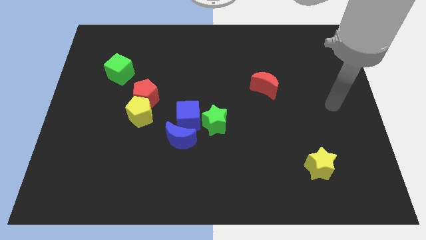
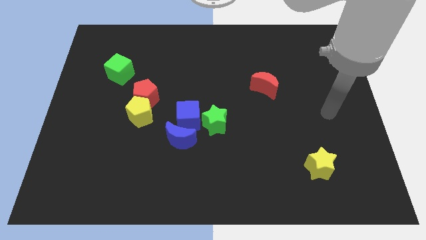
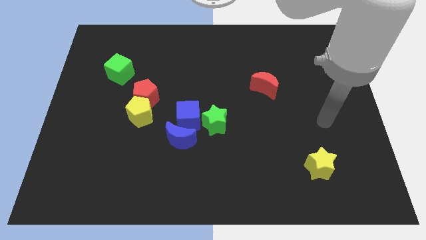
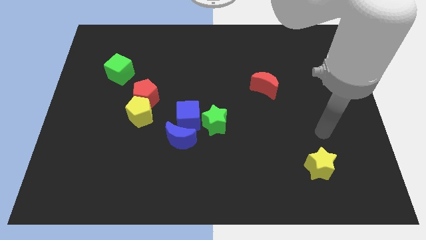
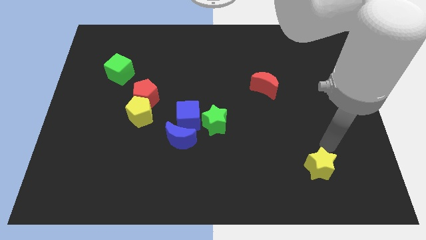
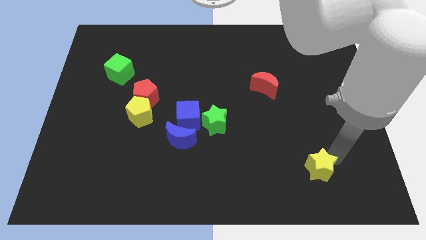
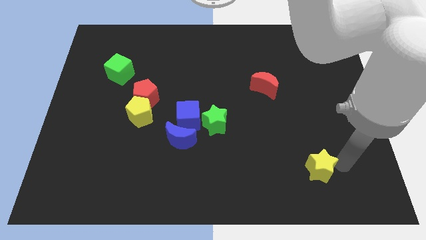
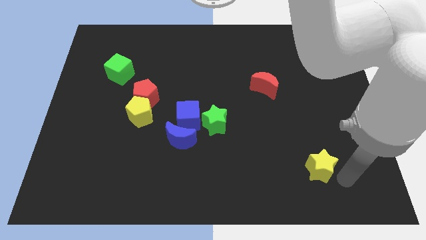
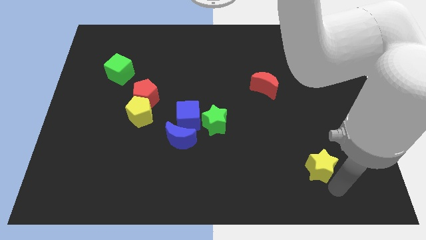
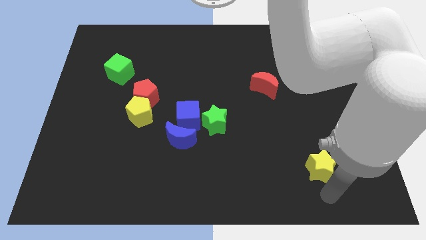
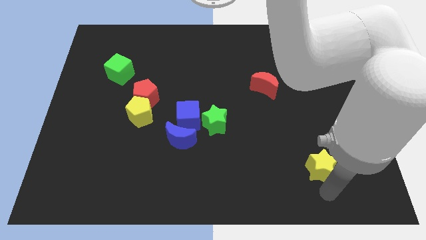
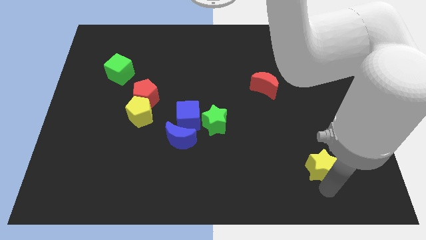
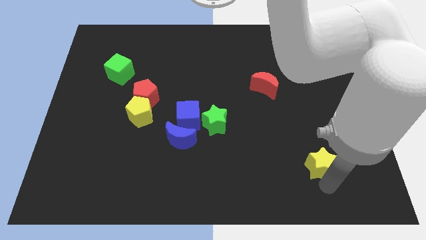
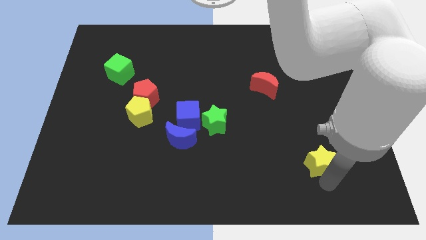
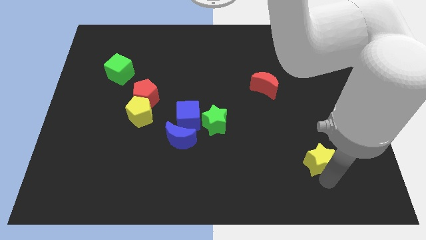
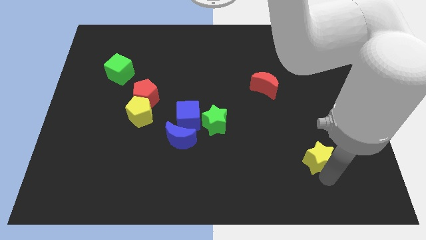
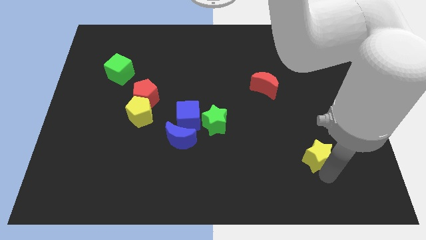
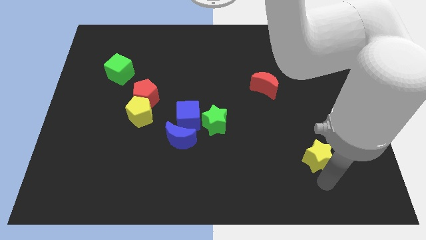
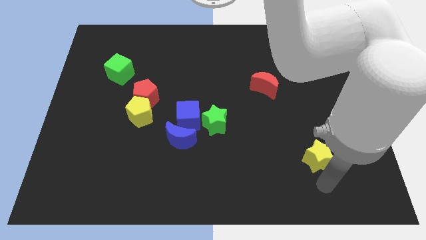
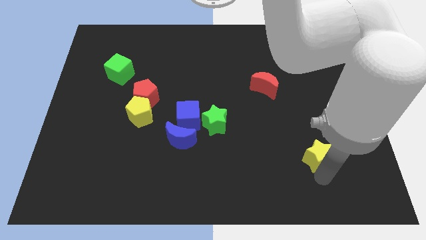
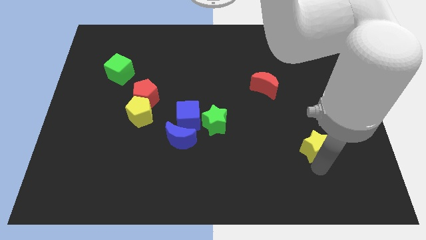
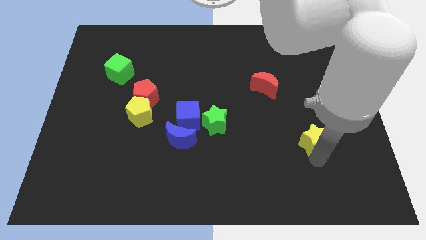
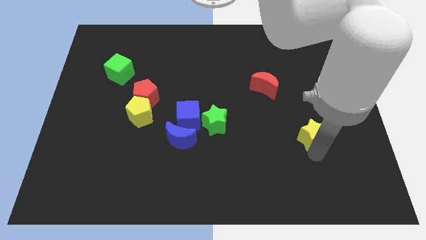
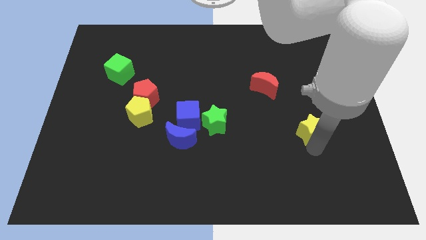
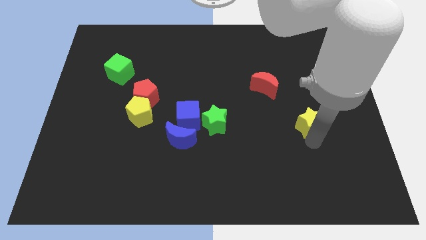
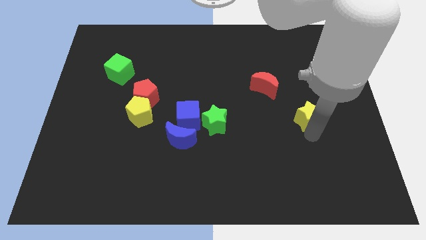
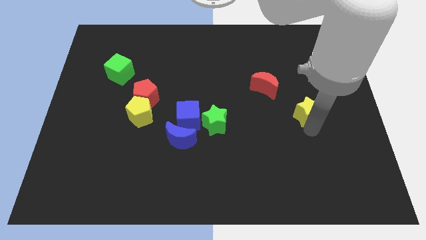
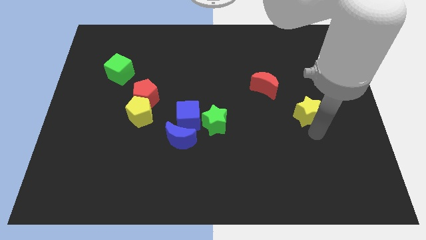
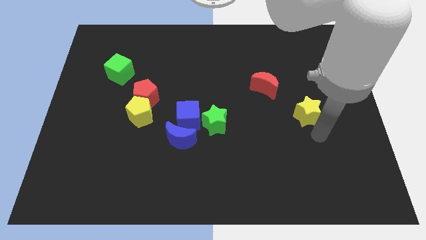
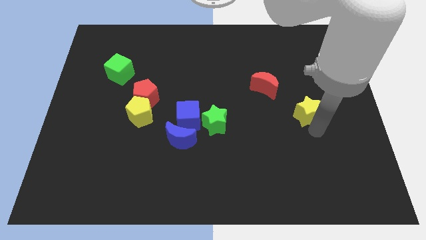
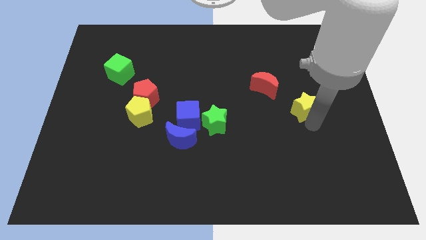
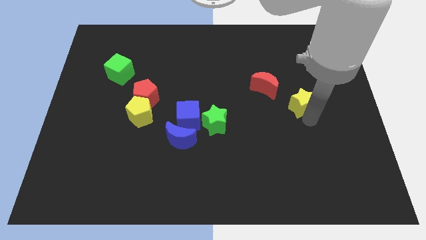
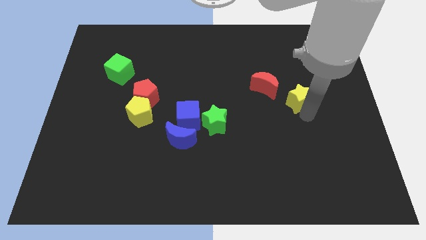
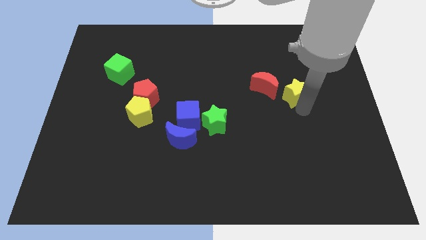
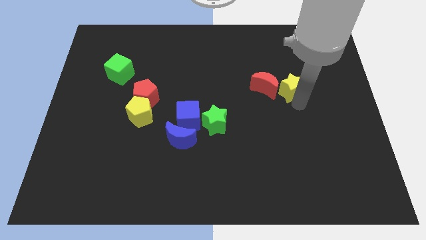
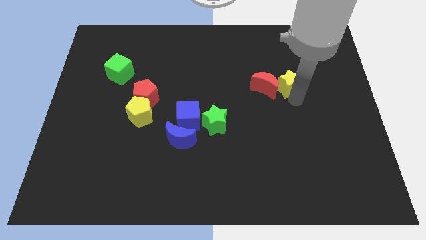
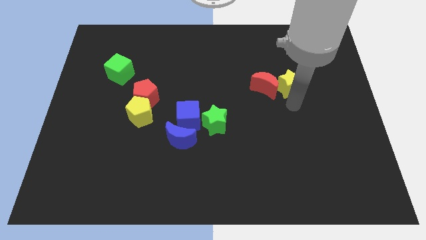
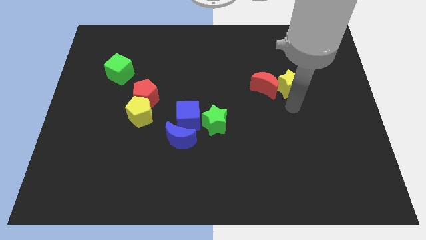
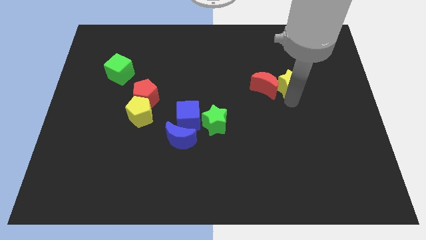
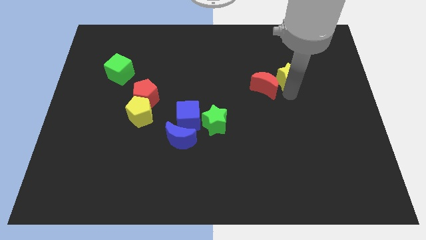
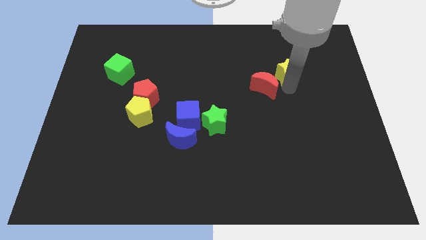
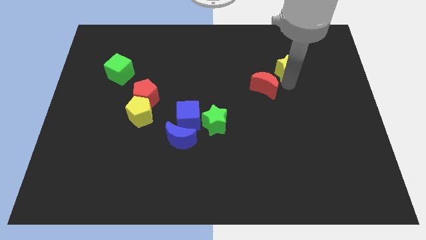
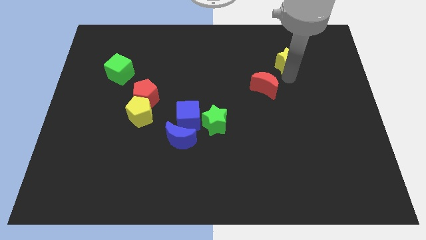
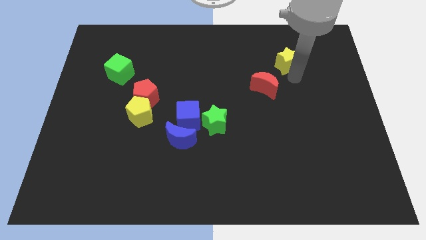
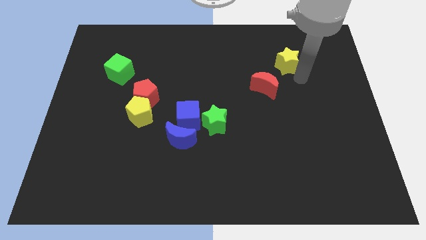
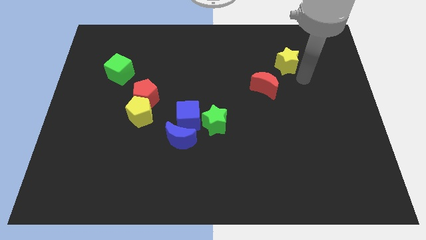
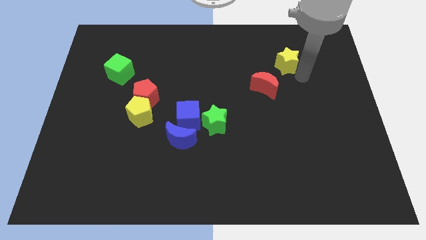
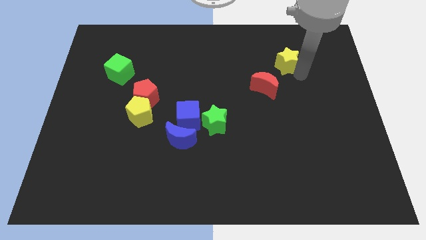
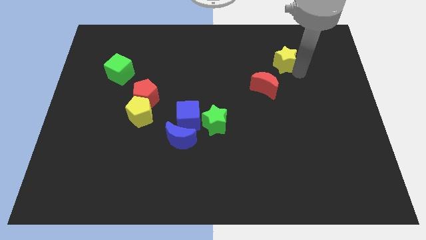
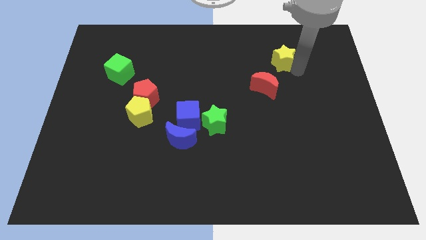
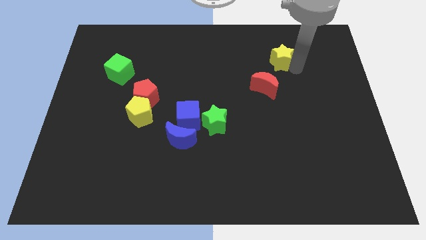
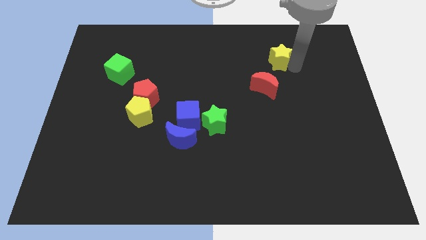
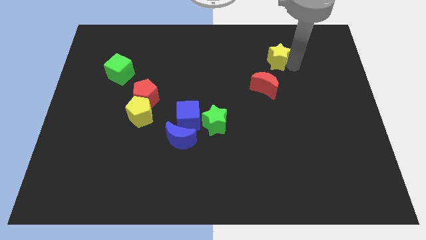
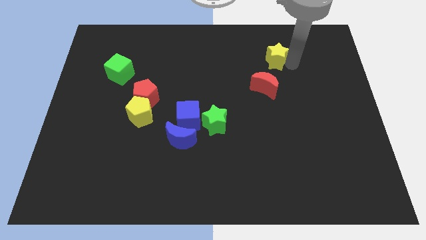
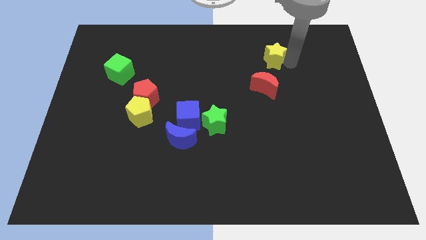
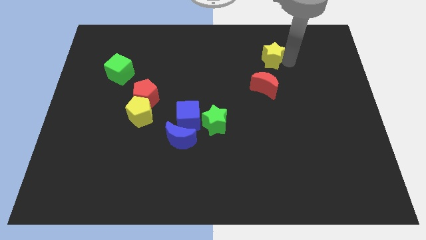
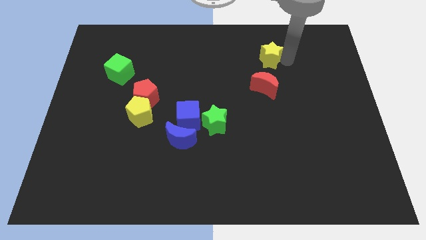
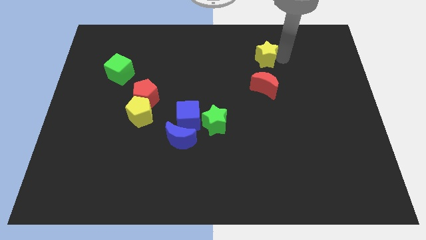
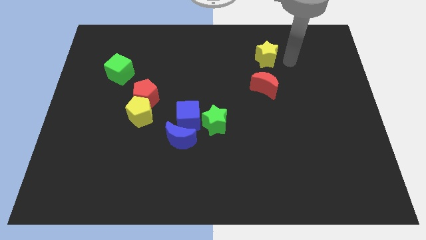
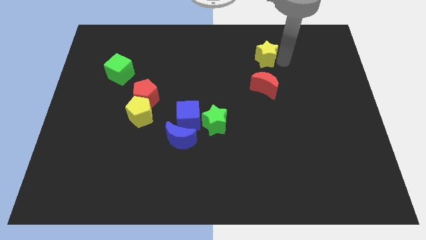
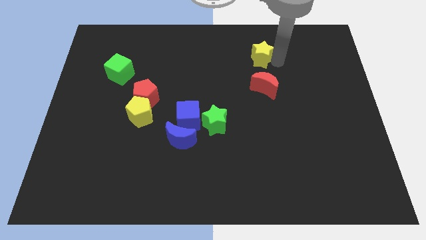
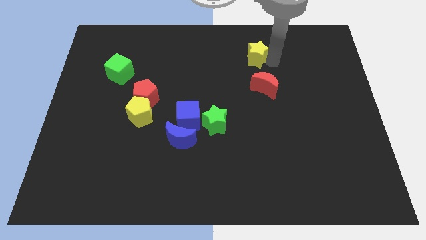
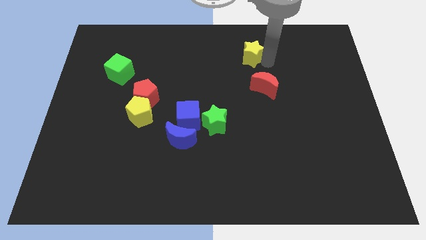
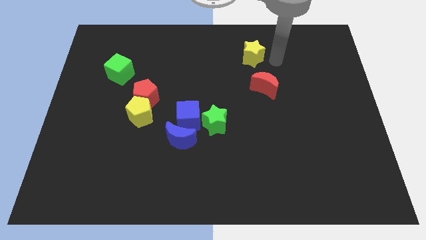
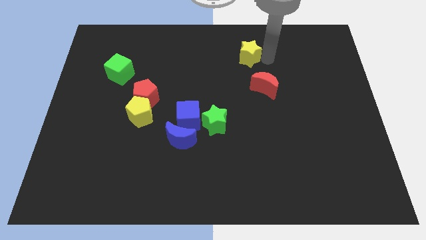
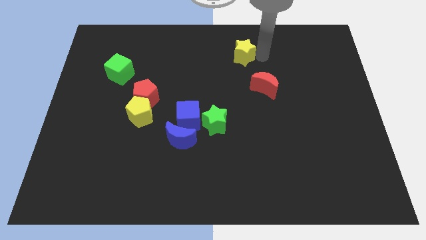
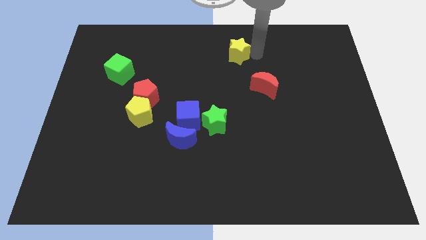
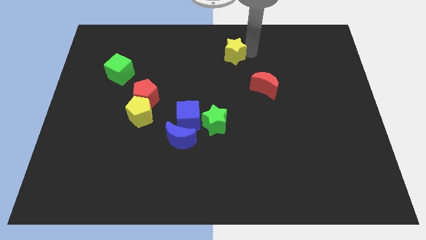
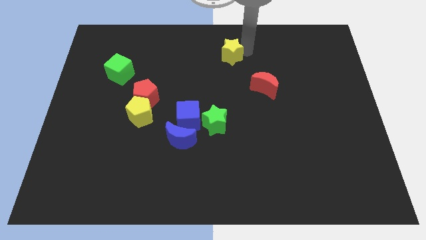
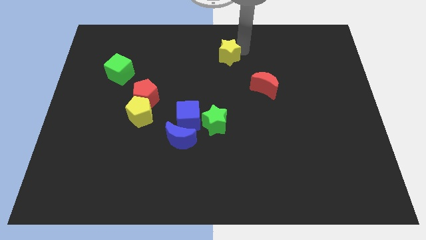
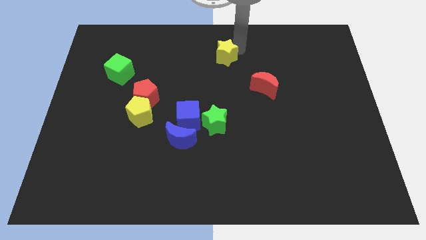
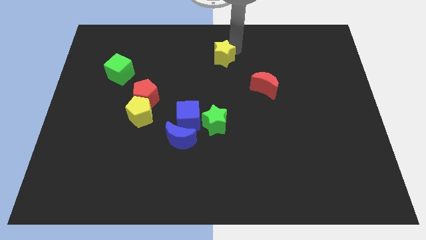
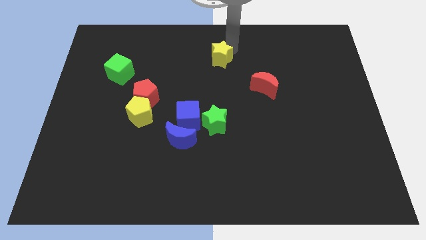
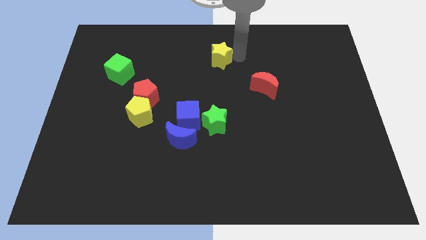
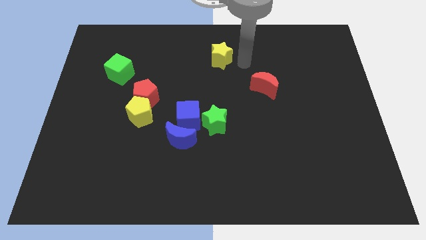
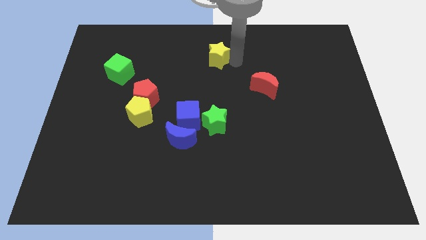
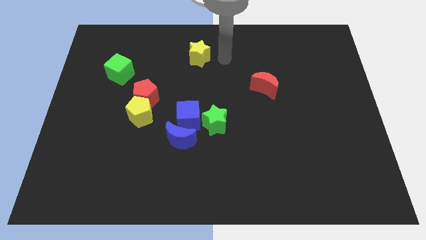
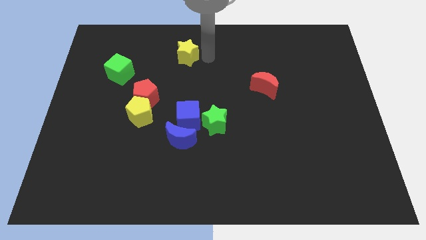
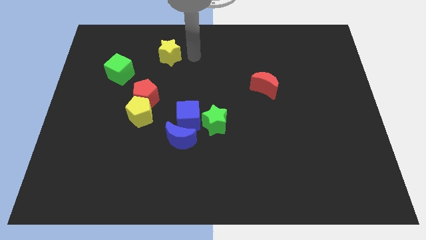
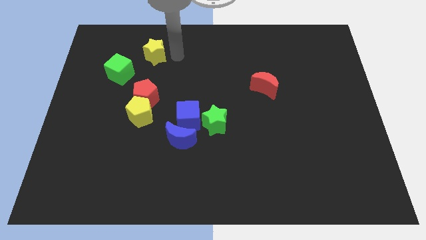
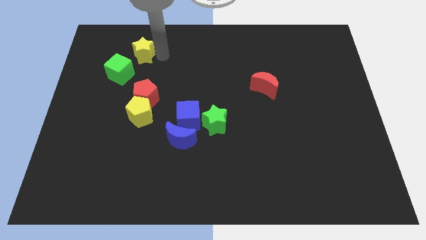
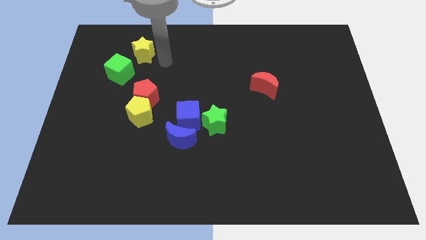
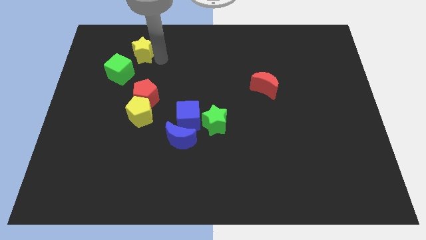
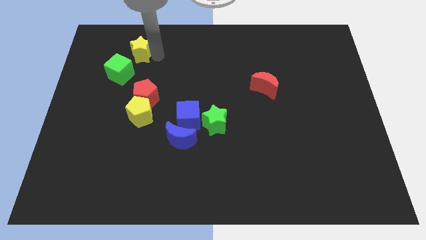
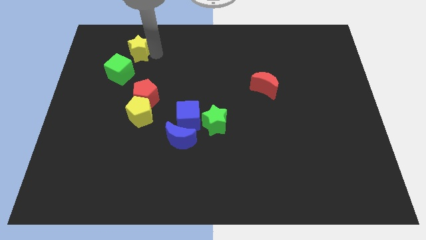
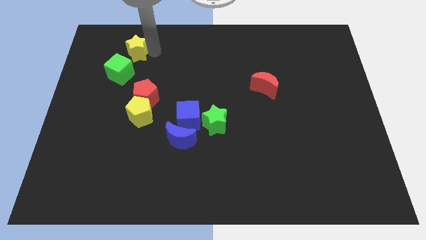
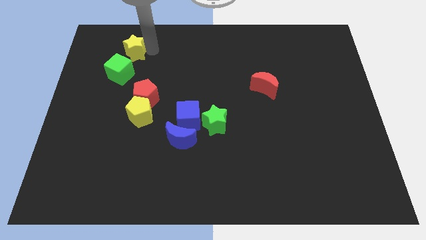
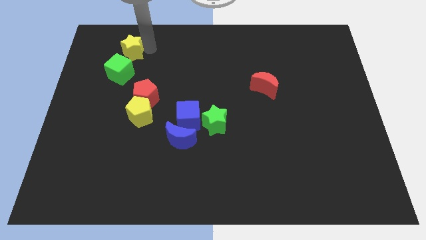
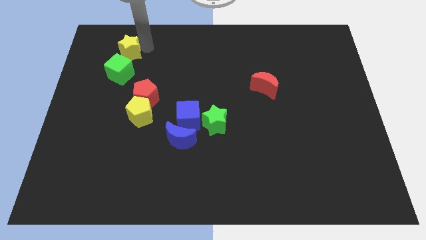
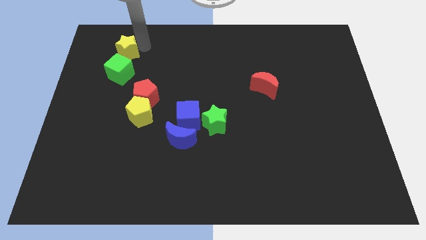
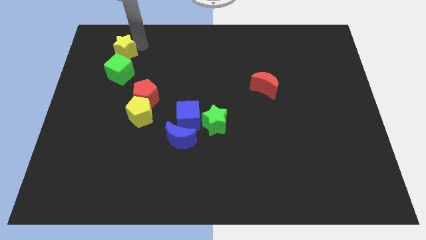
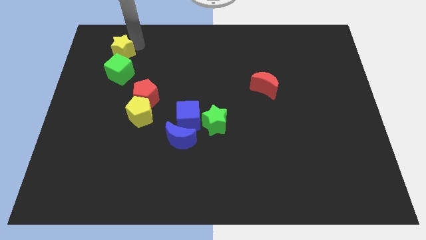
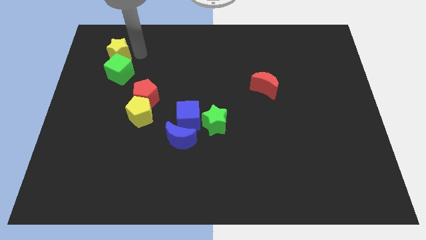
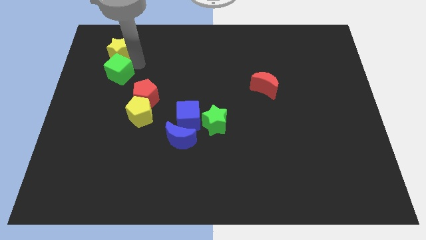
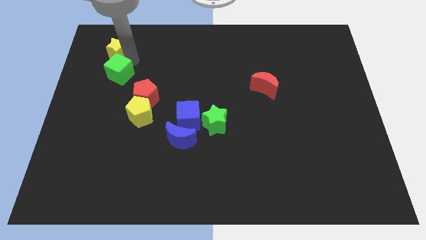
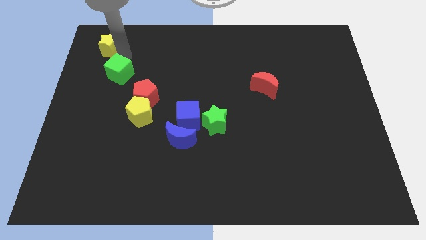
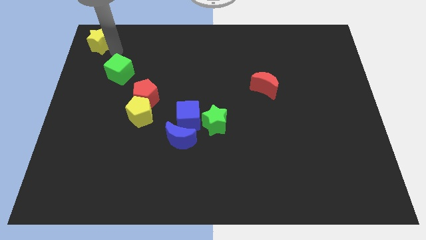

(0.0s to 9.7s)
move the yellow star to the top left corner
